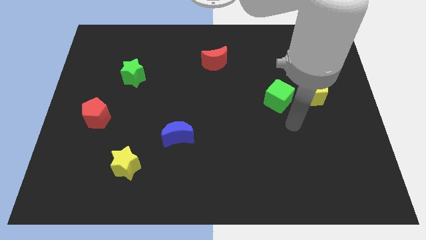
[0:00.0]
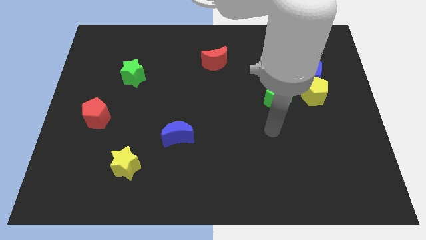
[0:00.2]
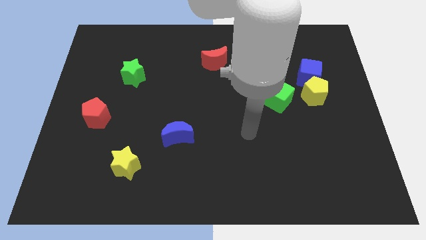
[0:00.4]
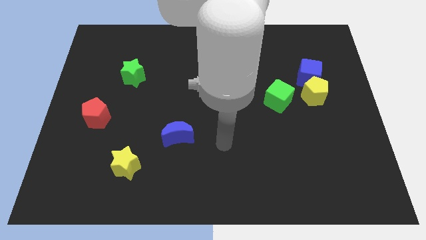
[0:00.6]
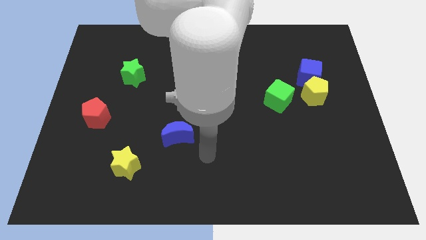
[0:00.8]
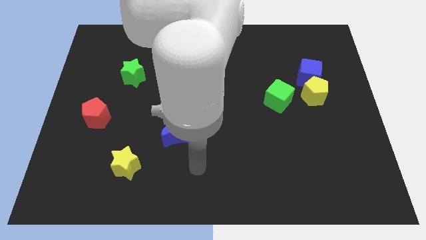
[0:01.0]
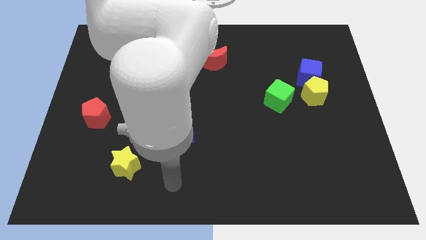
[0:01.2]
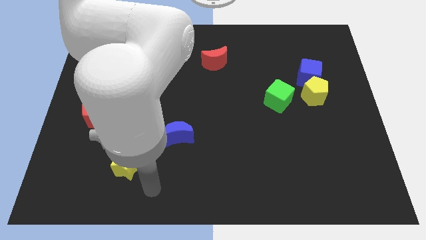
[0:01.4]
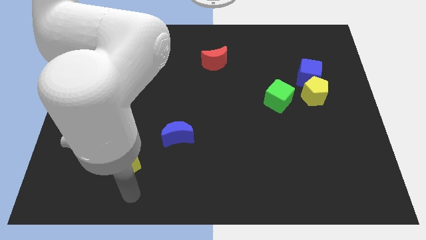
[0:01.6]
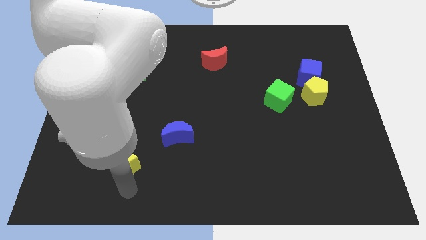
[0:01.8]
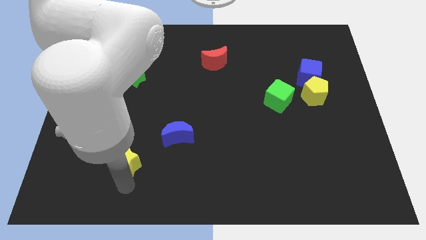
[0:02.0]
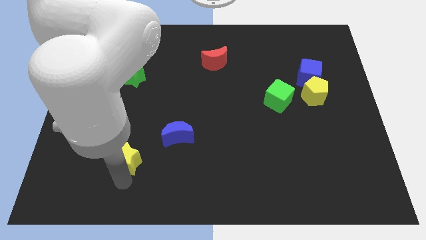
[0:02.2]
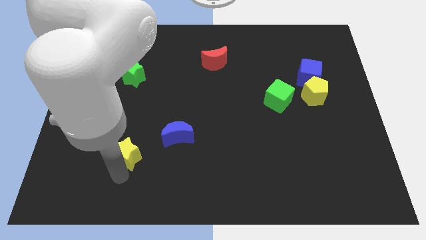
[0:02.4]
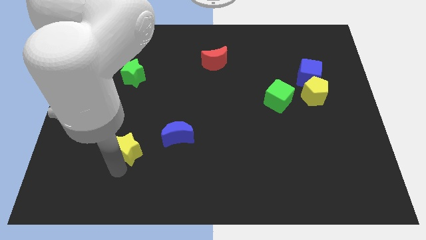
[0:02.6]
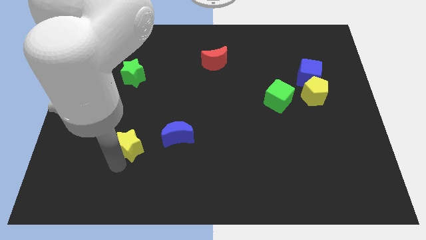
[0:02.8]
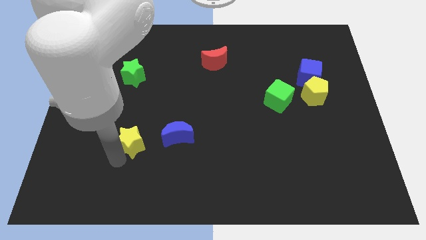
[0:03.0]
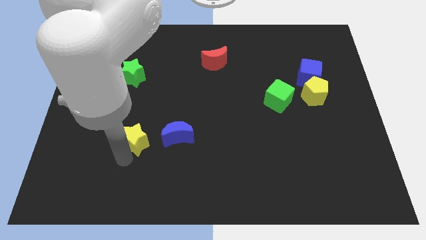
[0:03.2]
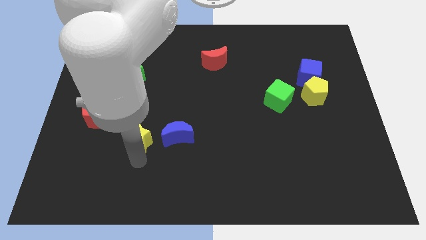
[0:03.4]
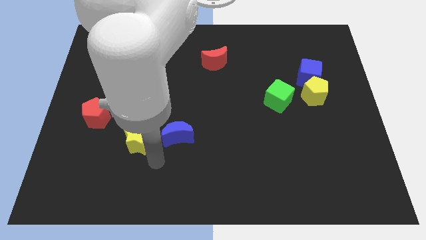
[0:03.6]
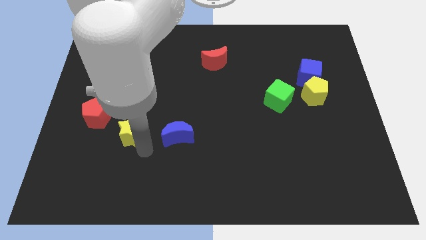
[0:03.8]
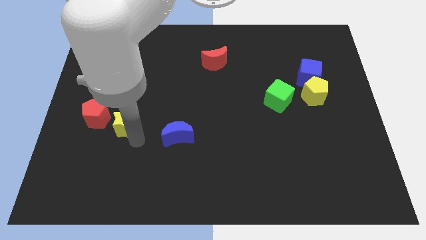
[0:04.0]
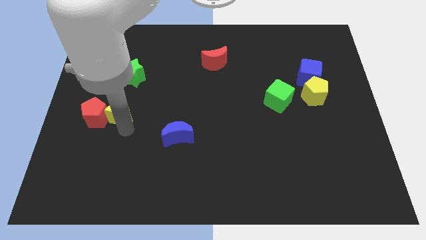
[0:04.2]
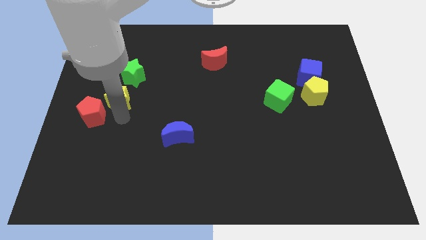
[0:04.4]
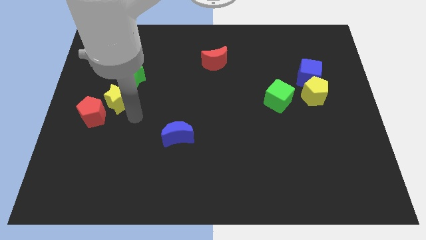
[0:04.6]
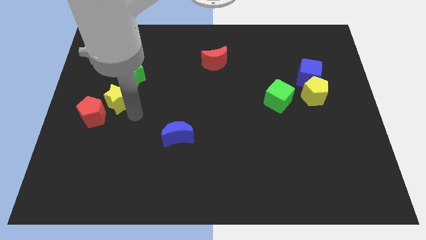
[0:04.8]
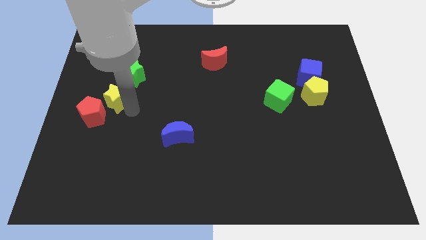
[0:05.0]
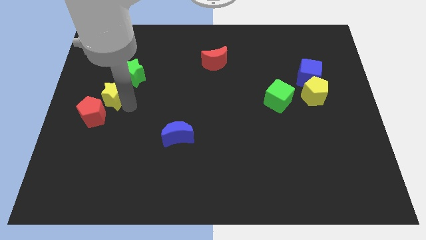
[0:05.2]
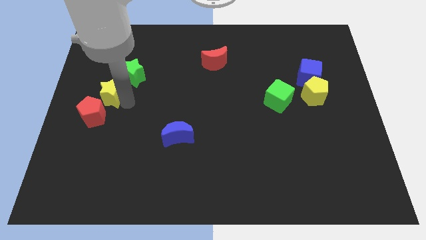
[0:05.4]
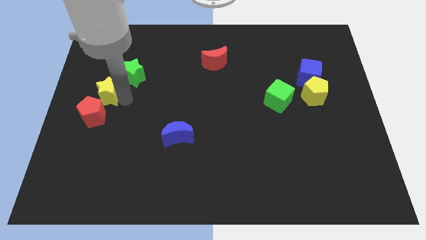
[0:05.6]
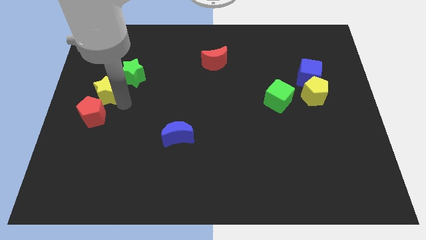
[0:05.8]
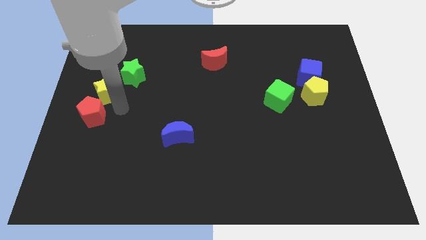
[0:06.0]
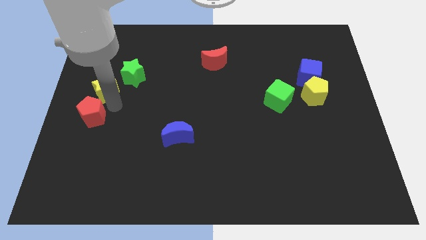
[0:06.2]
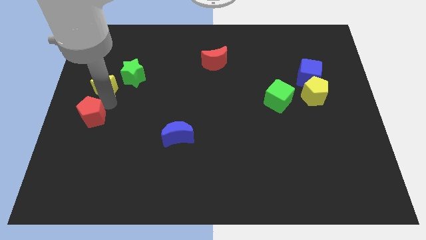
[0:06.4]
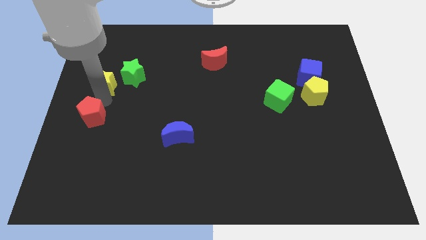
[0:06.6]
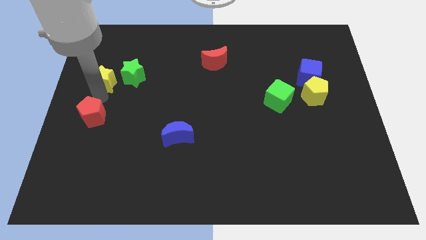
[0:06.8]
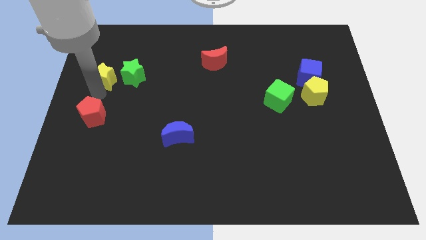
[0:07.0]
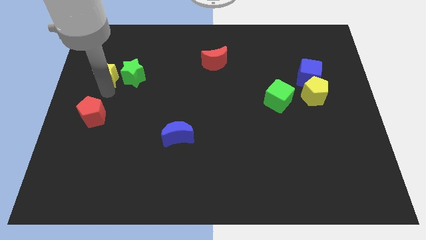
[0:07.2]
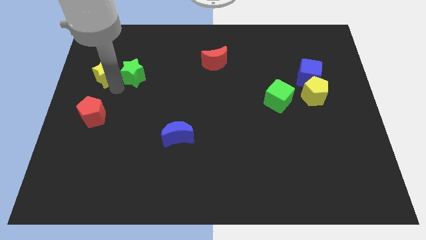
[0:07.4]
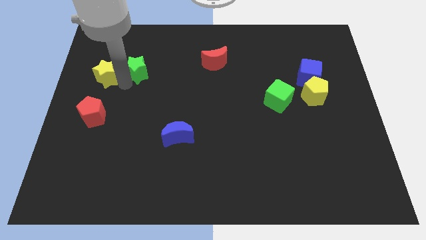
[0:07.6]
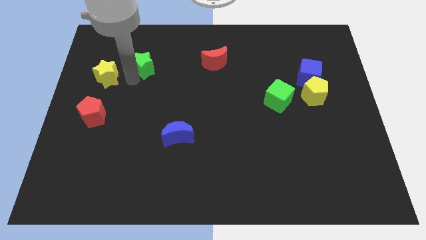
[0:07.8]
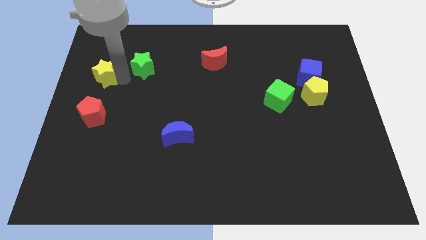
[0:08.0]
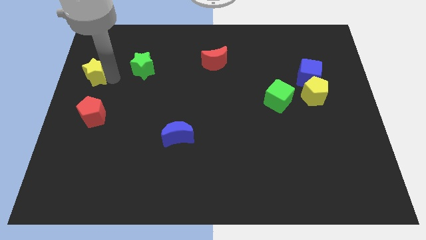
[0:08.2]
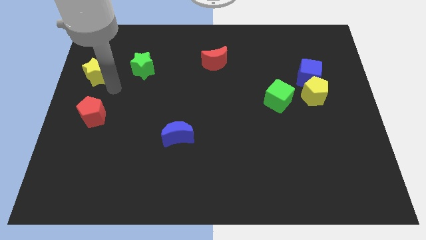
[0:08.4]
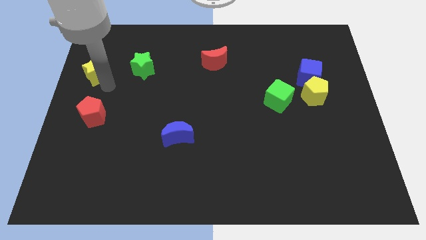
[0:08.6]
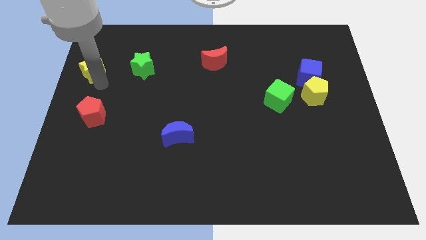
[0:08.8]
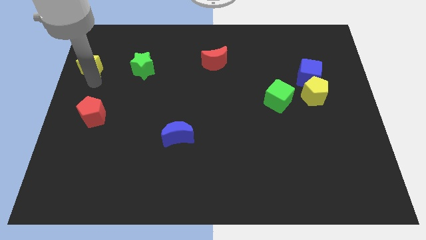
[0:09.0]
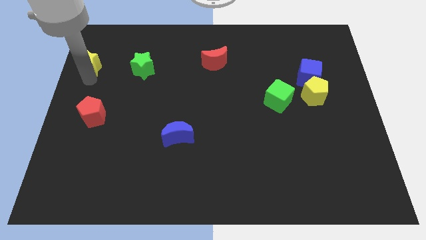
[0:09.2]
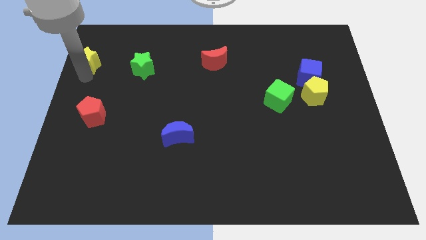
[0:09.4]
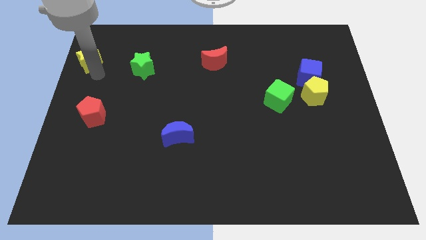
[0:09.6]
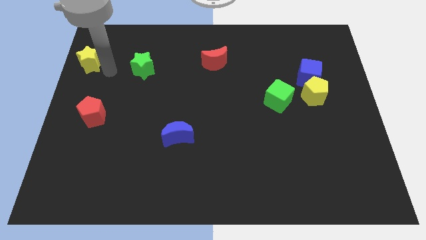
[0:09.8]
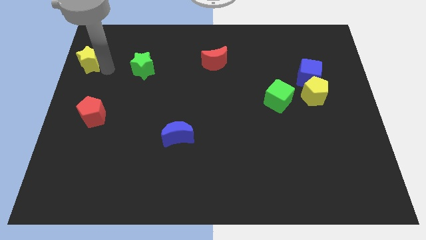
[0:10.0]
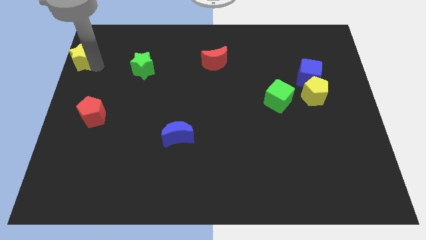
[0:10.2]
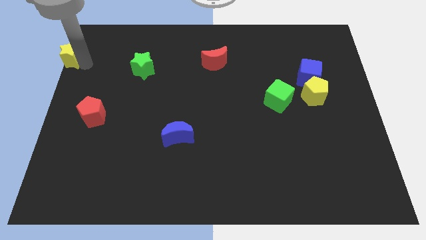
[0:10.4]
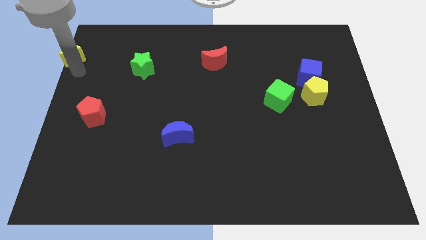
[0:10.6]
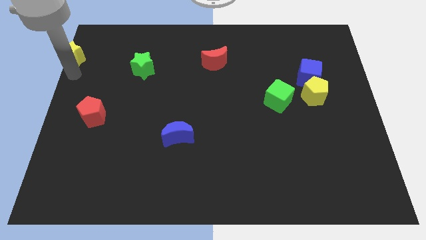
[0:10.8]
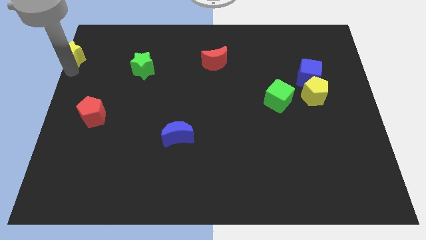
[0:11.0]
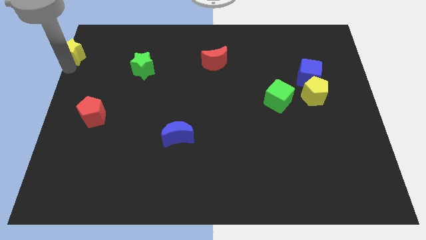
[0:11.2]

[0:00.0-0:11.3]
slide the yellow star to the top left of the board

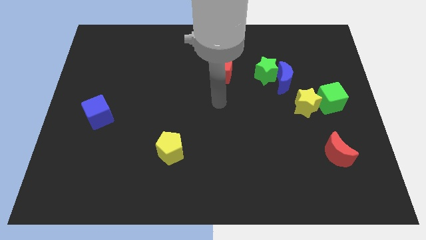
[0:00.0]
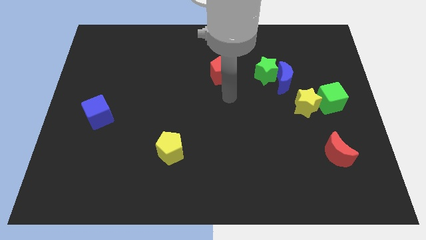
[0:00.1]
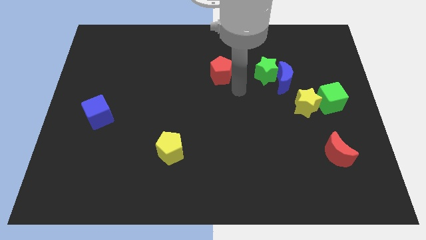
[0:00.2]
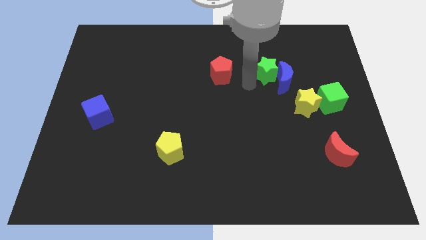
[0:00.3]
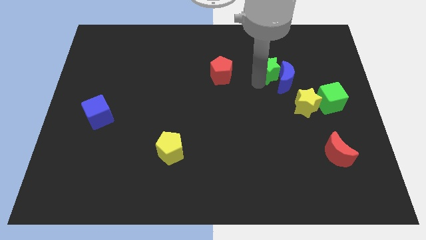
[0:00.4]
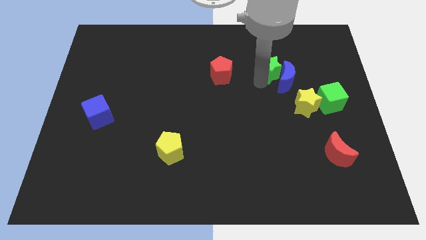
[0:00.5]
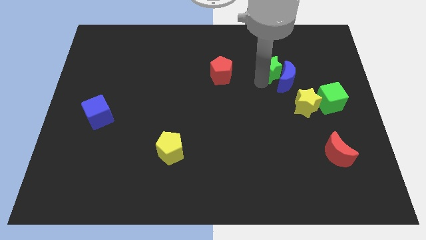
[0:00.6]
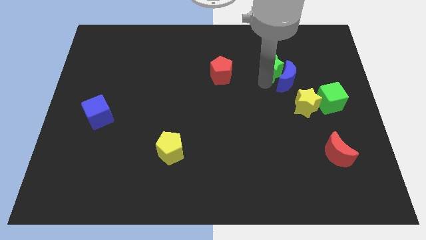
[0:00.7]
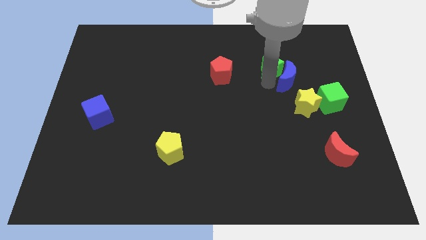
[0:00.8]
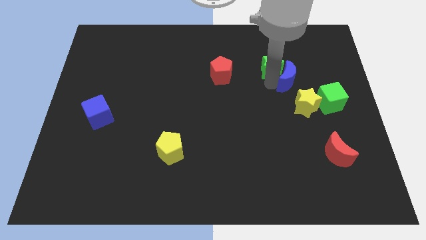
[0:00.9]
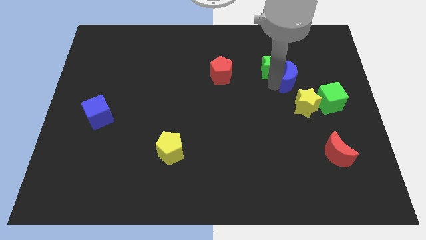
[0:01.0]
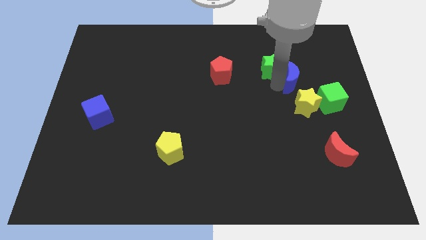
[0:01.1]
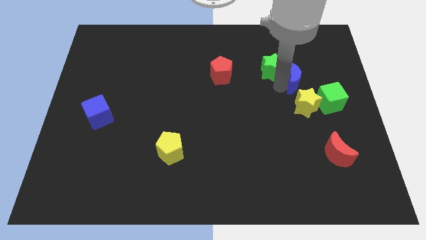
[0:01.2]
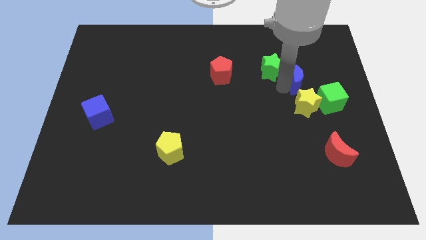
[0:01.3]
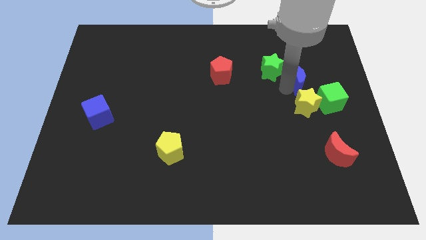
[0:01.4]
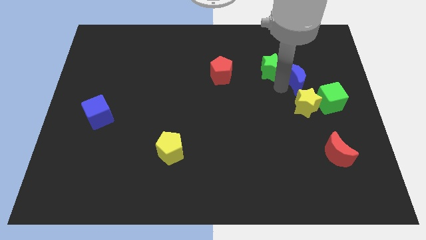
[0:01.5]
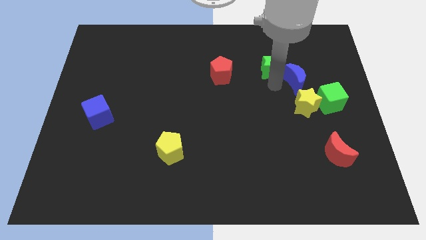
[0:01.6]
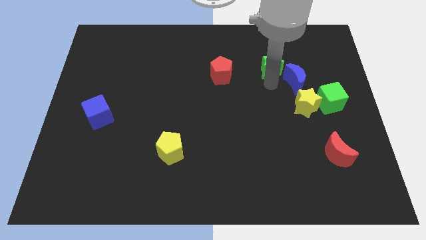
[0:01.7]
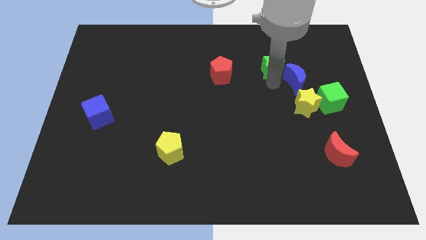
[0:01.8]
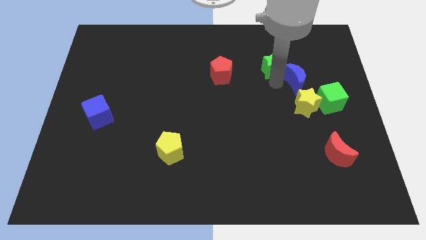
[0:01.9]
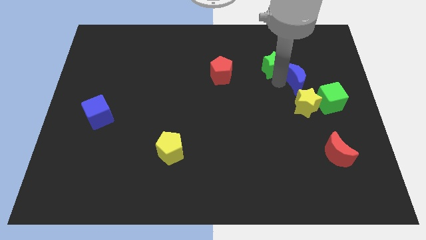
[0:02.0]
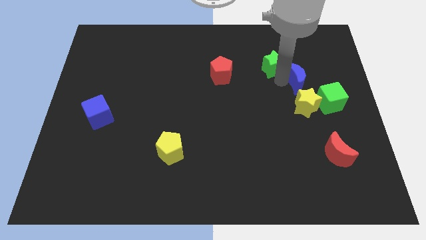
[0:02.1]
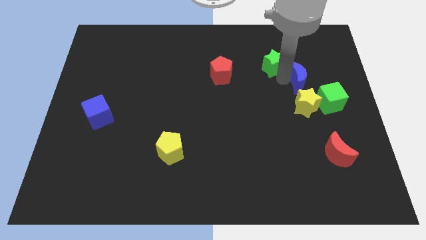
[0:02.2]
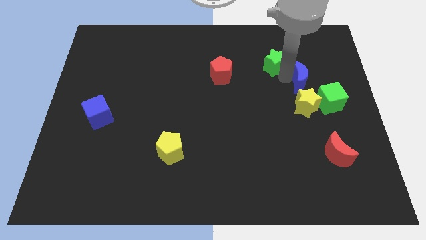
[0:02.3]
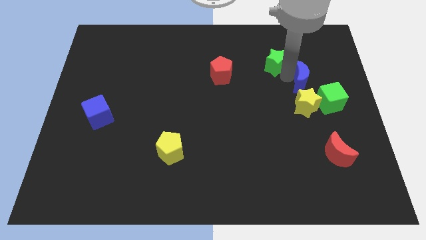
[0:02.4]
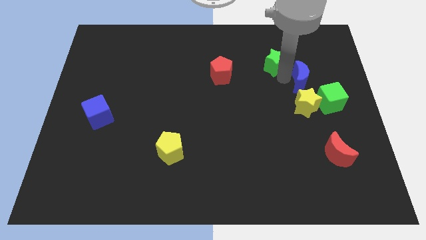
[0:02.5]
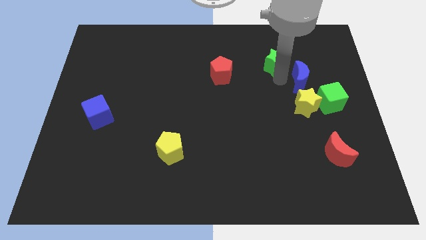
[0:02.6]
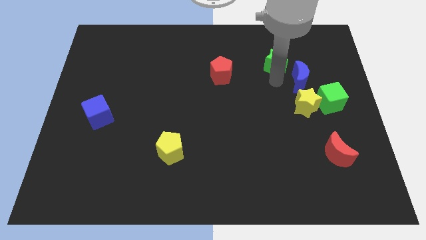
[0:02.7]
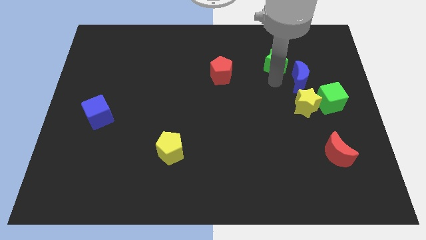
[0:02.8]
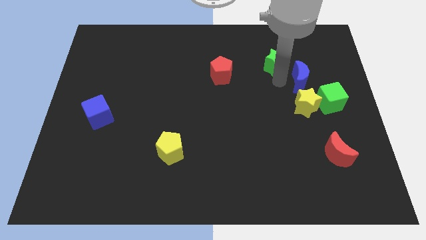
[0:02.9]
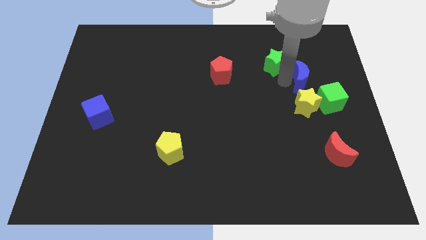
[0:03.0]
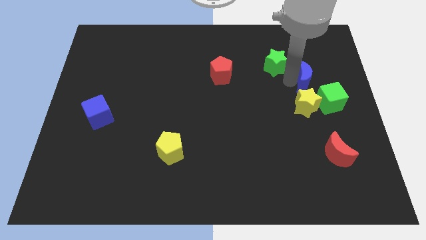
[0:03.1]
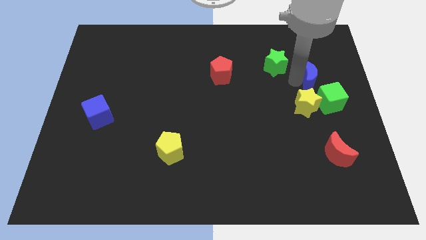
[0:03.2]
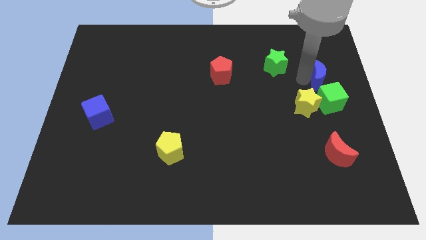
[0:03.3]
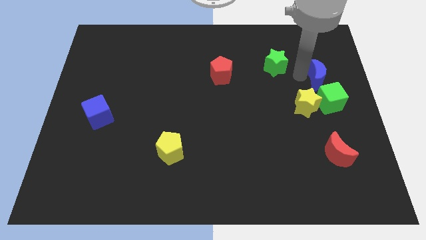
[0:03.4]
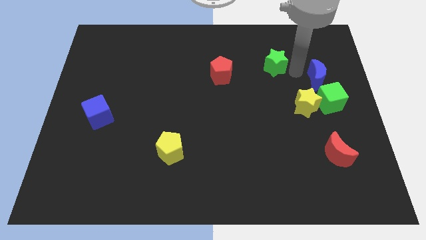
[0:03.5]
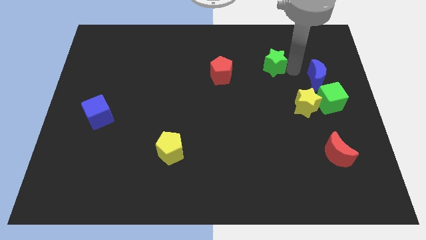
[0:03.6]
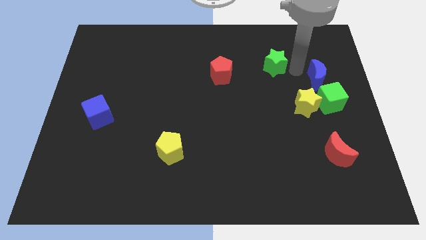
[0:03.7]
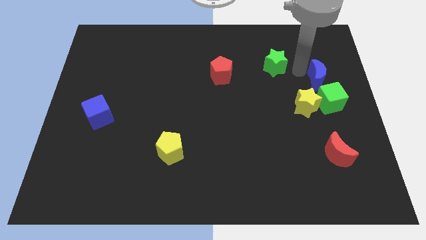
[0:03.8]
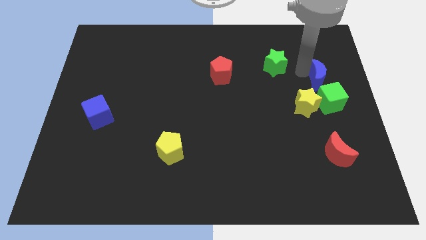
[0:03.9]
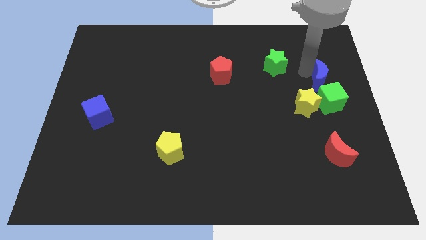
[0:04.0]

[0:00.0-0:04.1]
slide the blue moon to the center right
